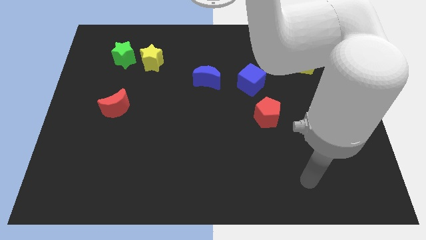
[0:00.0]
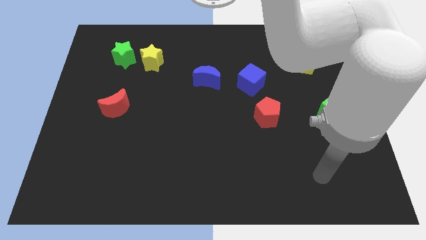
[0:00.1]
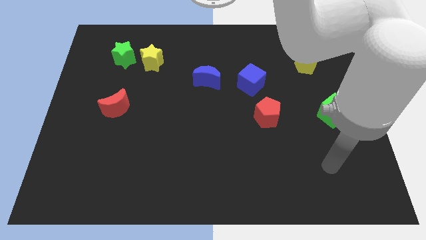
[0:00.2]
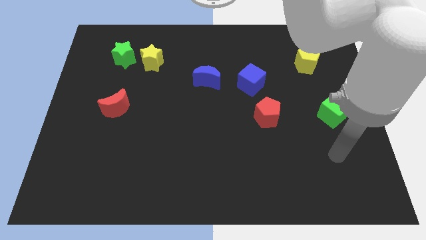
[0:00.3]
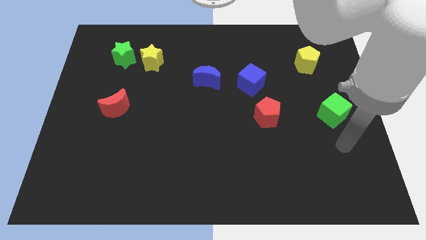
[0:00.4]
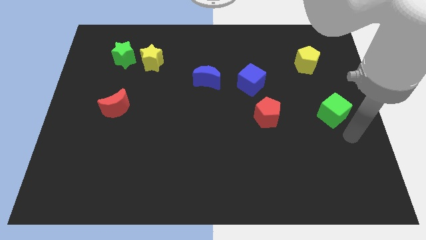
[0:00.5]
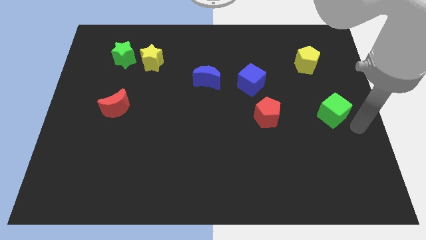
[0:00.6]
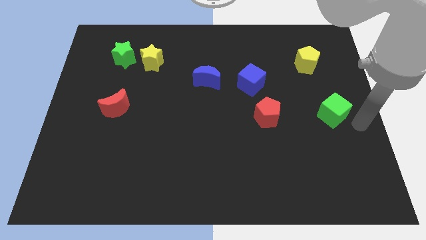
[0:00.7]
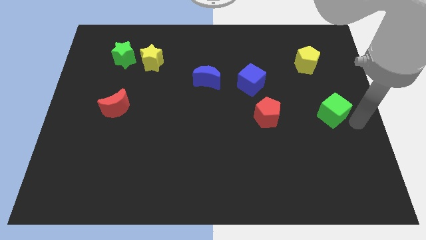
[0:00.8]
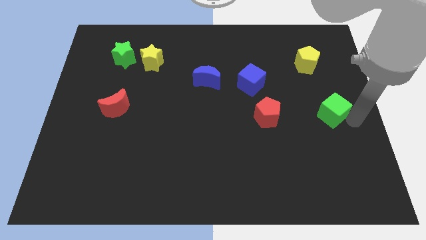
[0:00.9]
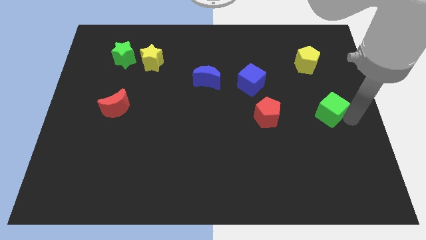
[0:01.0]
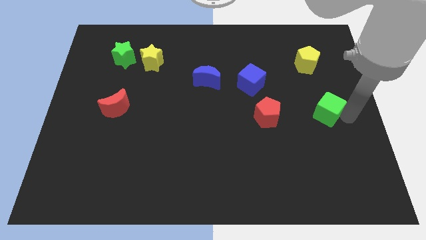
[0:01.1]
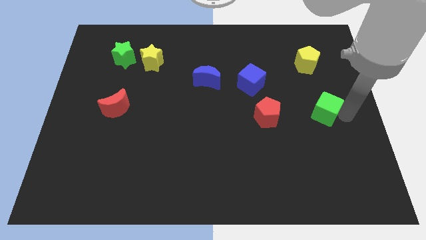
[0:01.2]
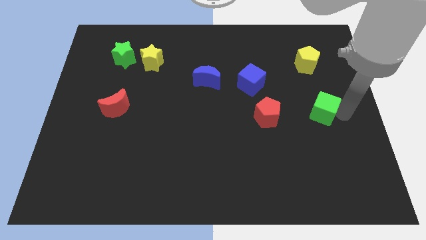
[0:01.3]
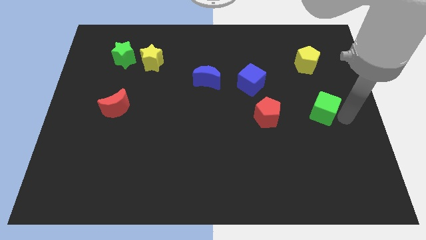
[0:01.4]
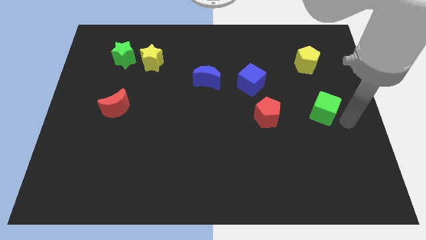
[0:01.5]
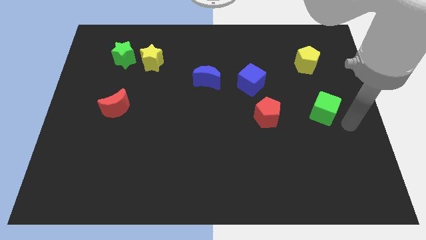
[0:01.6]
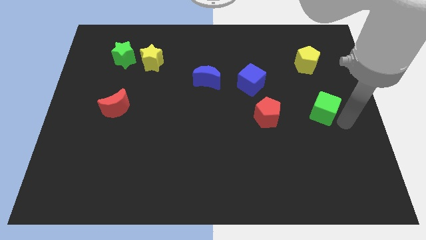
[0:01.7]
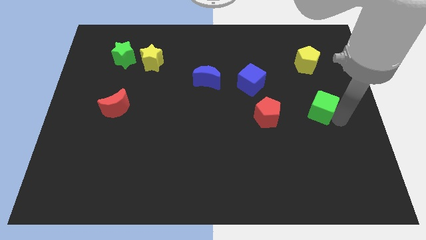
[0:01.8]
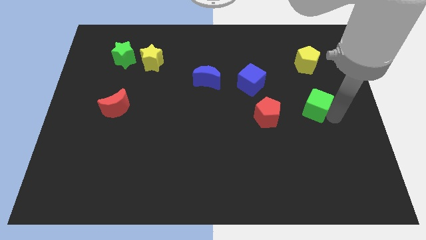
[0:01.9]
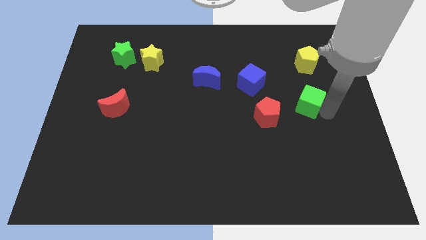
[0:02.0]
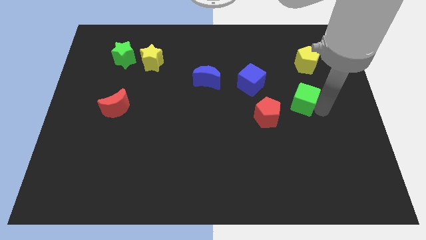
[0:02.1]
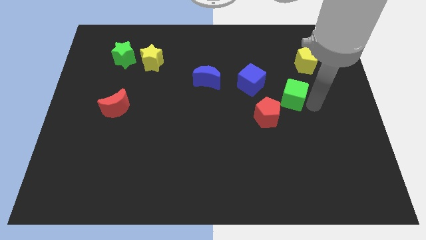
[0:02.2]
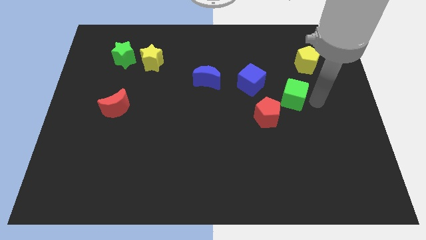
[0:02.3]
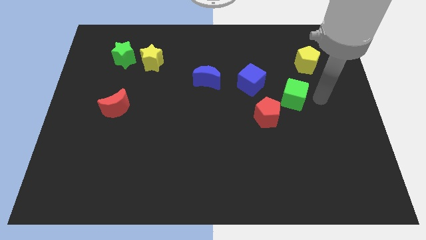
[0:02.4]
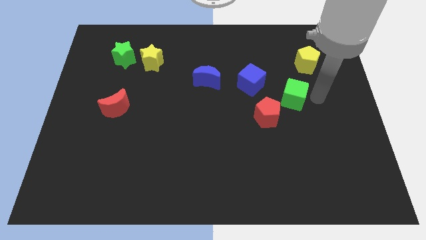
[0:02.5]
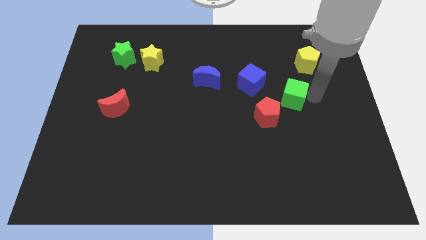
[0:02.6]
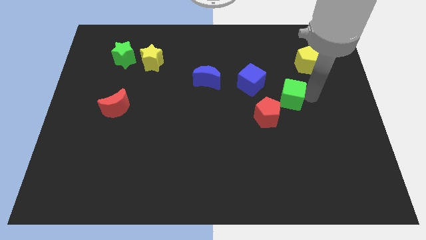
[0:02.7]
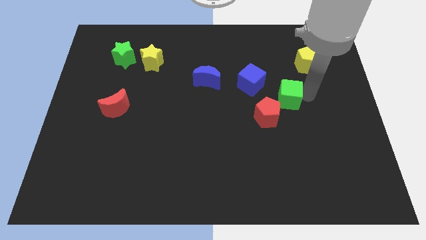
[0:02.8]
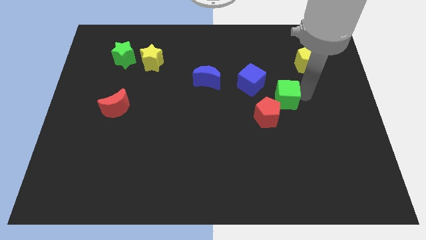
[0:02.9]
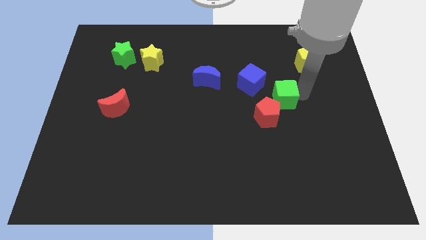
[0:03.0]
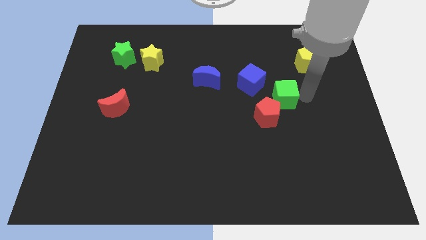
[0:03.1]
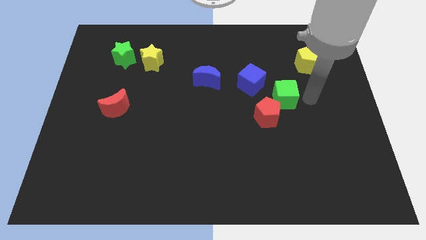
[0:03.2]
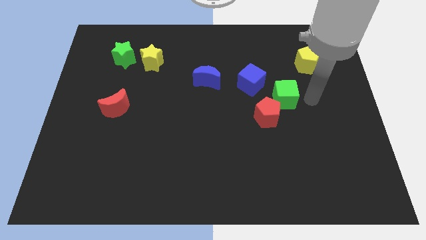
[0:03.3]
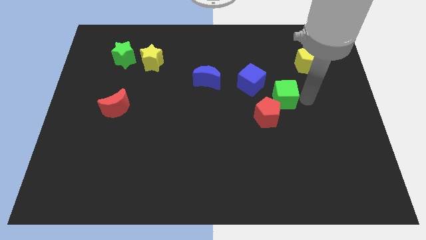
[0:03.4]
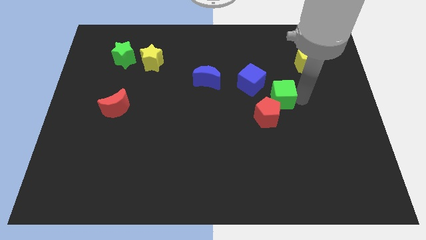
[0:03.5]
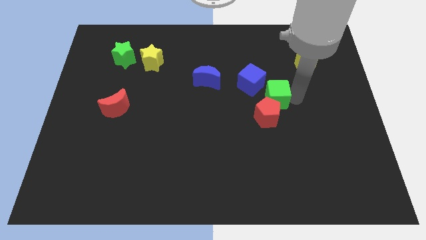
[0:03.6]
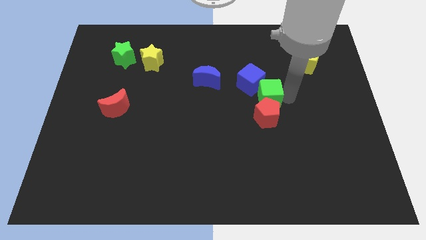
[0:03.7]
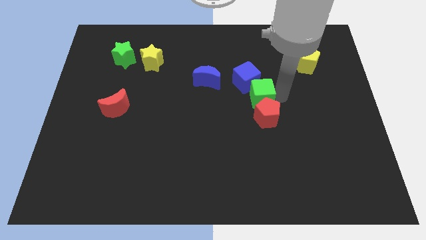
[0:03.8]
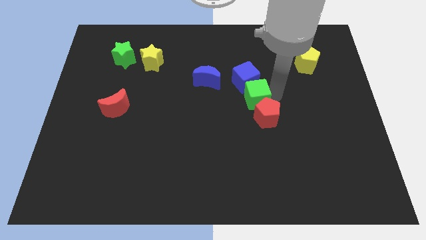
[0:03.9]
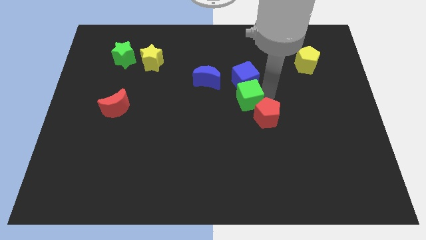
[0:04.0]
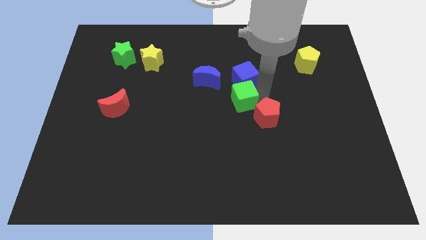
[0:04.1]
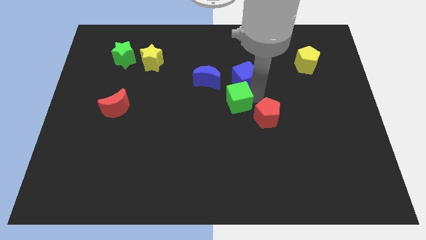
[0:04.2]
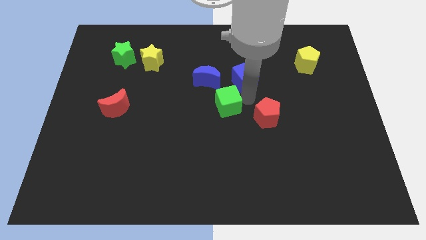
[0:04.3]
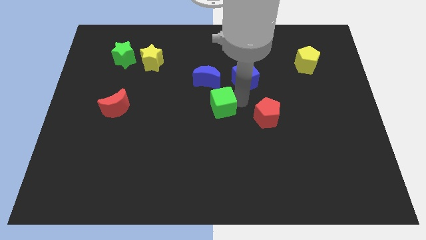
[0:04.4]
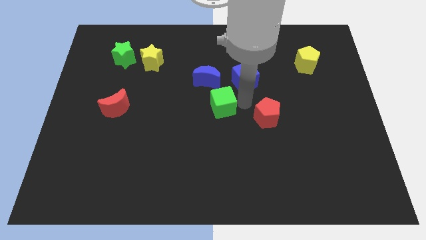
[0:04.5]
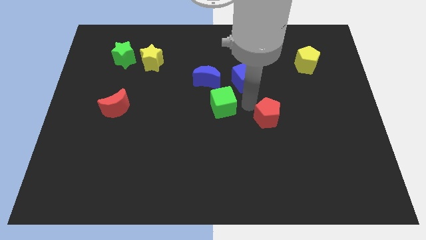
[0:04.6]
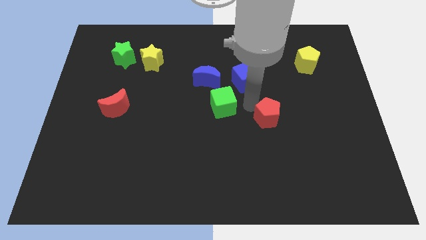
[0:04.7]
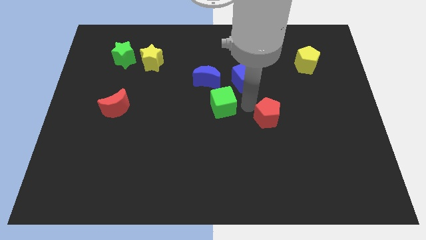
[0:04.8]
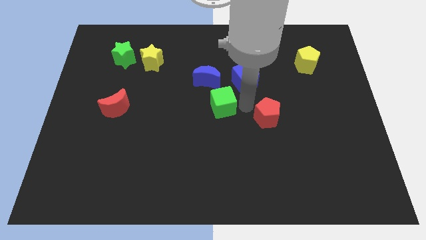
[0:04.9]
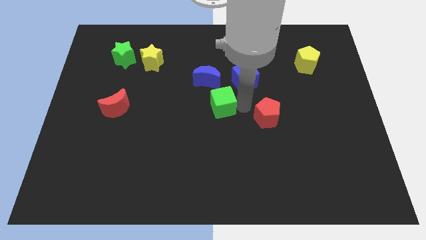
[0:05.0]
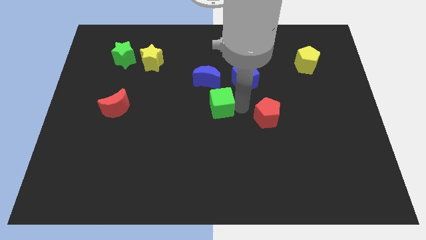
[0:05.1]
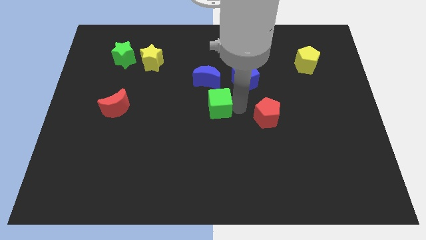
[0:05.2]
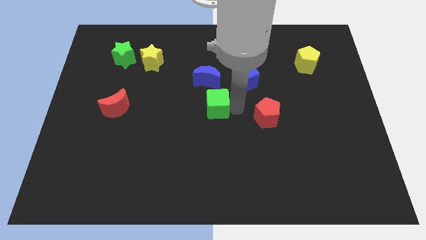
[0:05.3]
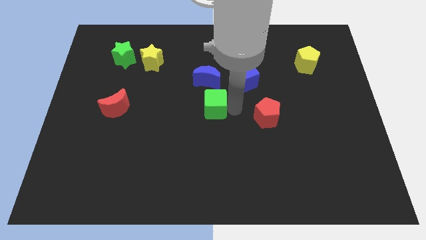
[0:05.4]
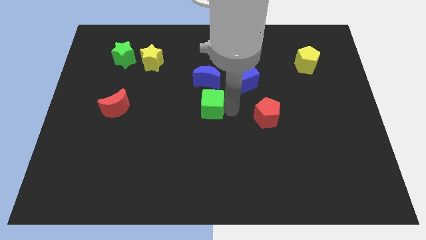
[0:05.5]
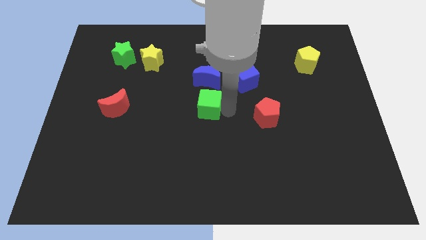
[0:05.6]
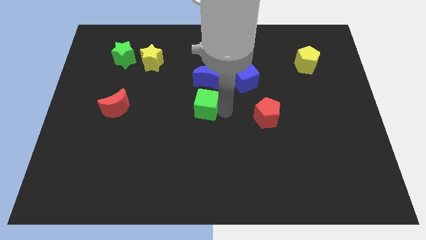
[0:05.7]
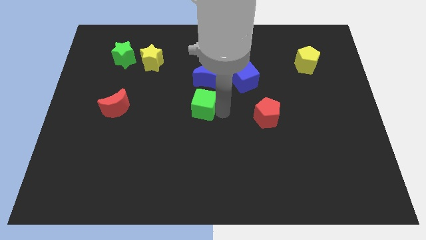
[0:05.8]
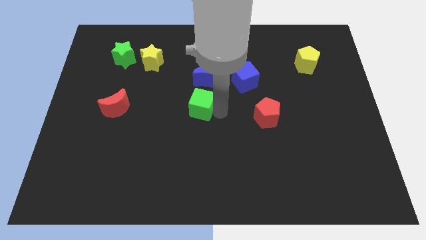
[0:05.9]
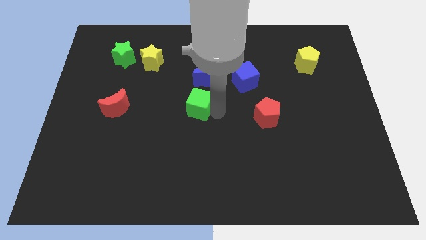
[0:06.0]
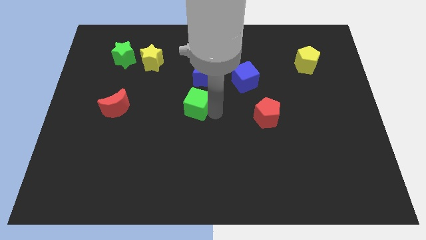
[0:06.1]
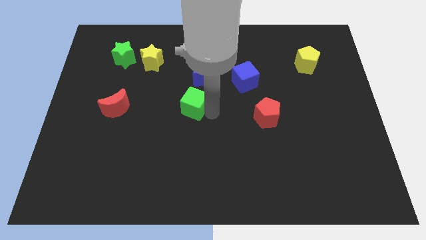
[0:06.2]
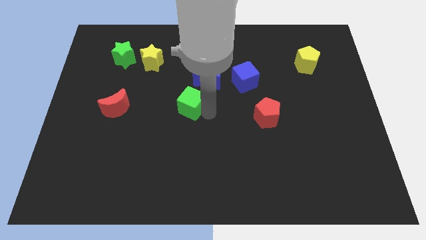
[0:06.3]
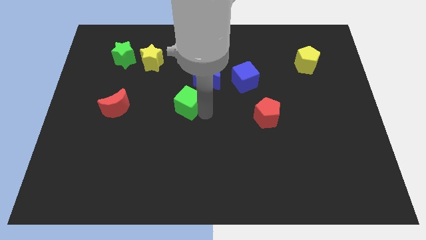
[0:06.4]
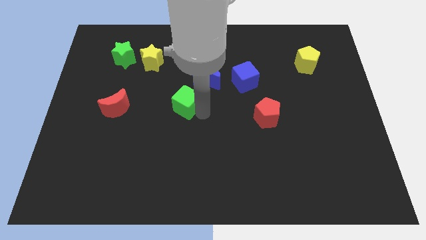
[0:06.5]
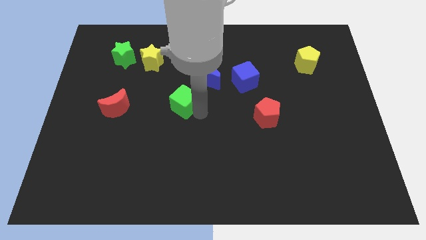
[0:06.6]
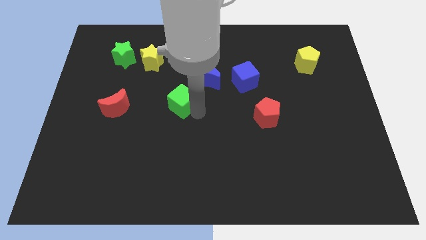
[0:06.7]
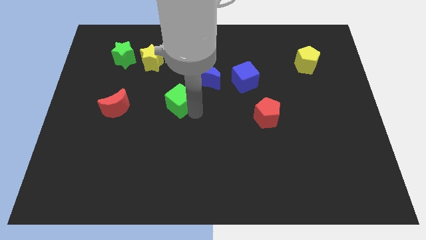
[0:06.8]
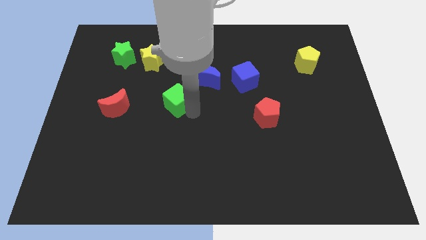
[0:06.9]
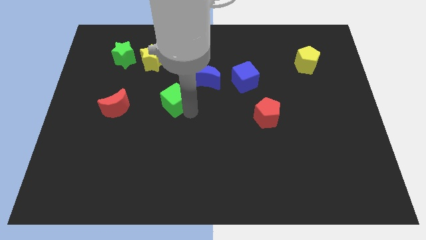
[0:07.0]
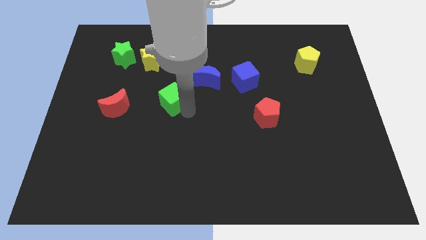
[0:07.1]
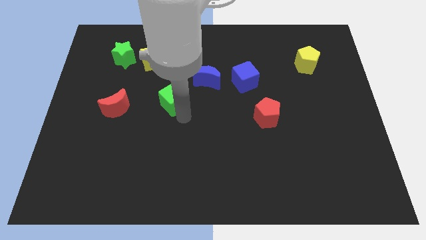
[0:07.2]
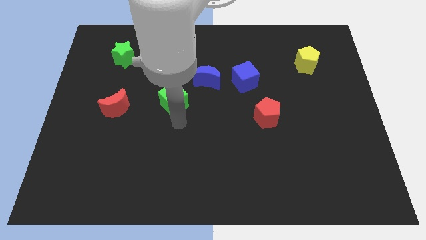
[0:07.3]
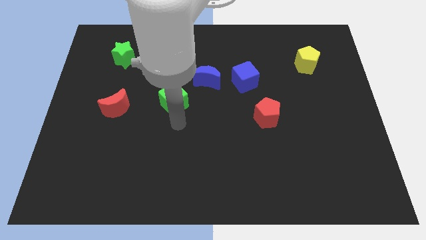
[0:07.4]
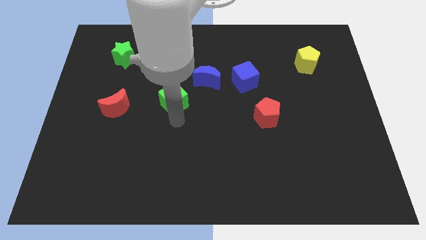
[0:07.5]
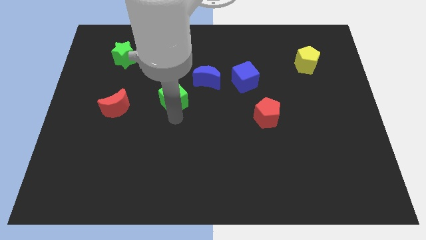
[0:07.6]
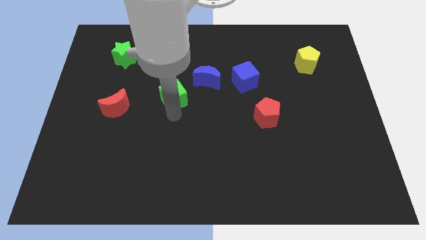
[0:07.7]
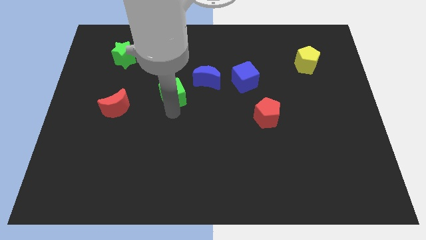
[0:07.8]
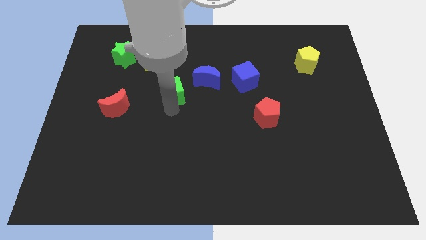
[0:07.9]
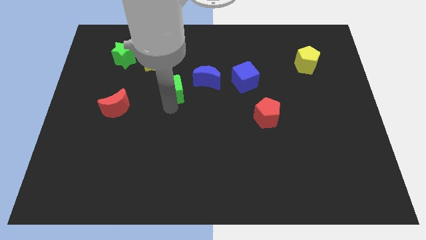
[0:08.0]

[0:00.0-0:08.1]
push the green cube to the bottom right side of the yellow star
